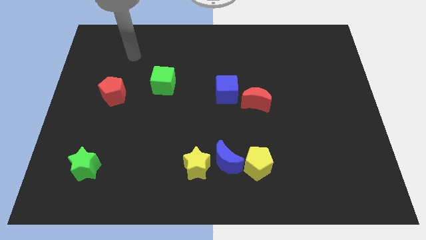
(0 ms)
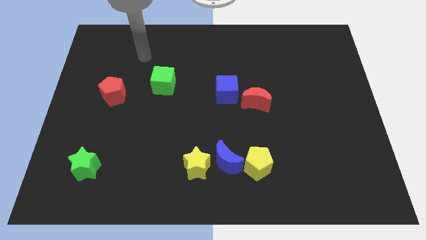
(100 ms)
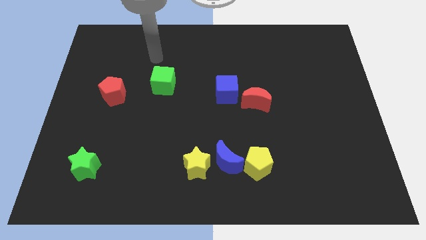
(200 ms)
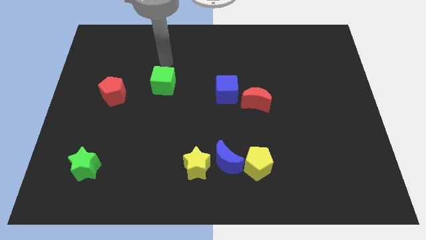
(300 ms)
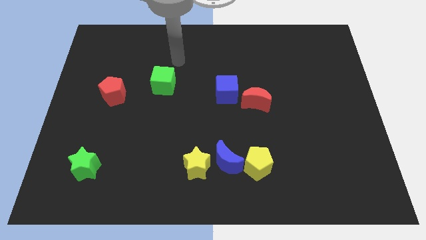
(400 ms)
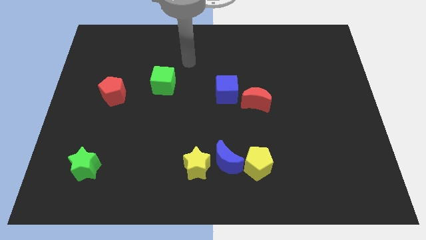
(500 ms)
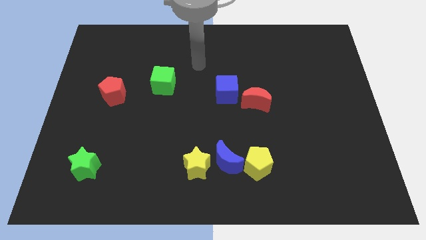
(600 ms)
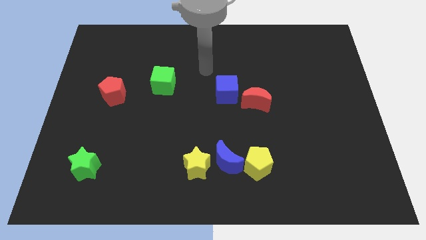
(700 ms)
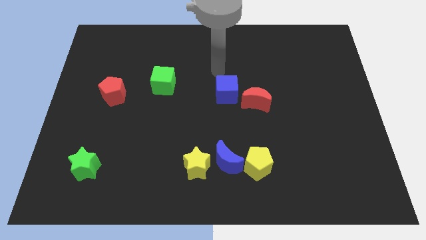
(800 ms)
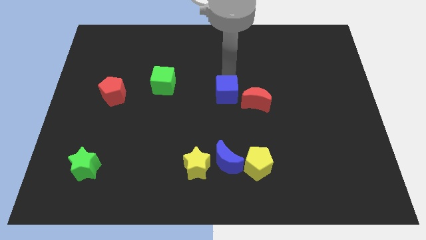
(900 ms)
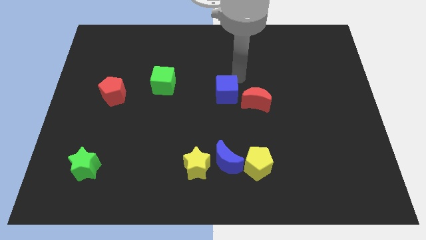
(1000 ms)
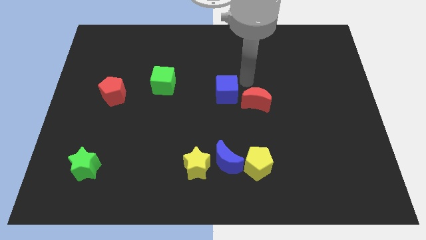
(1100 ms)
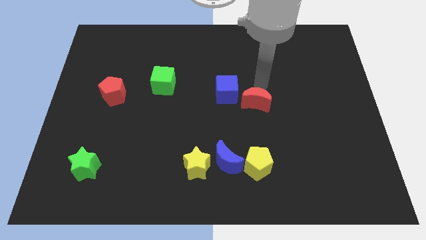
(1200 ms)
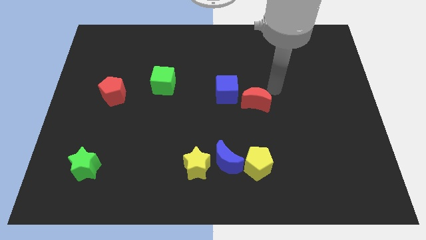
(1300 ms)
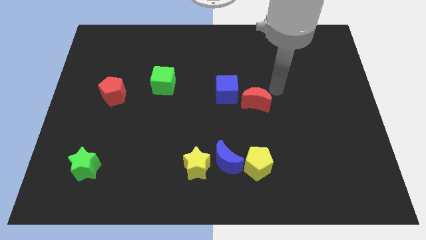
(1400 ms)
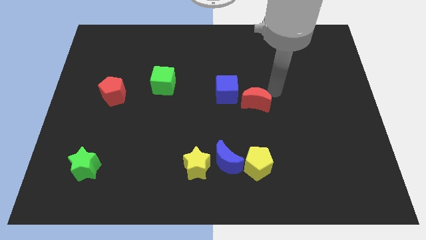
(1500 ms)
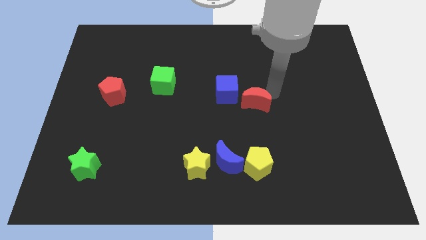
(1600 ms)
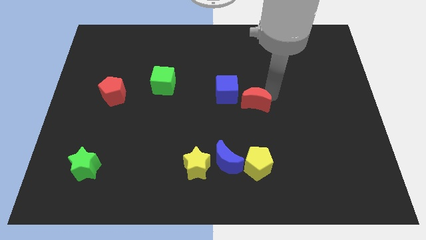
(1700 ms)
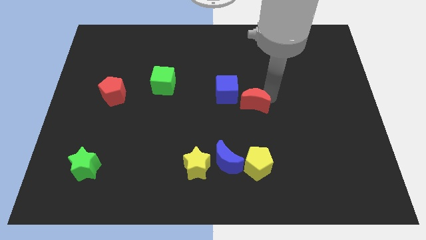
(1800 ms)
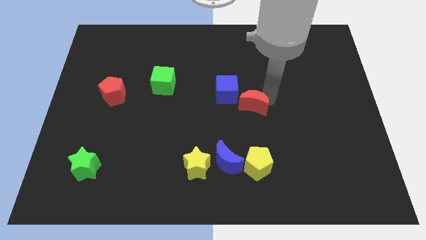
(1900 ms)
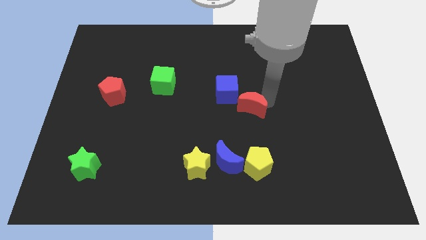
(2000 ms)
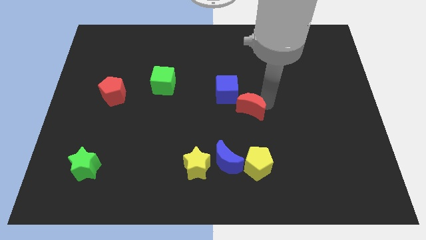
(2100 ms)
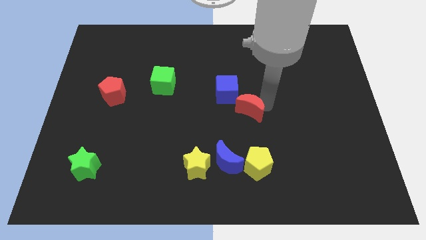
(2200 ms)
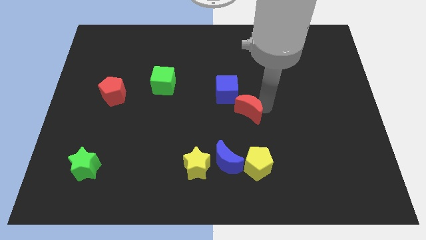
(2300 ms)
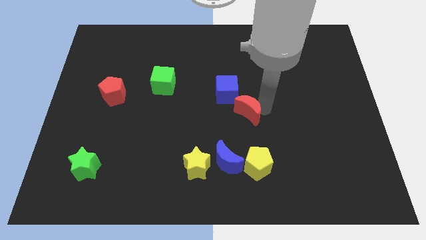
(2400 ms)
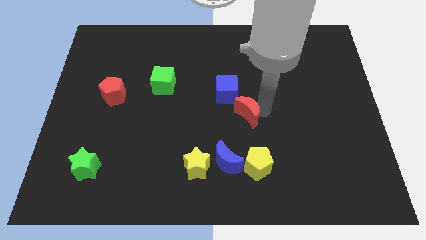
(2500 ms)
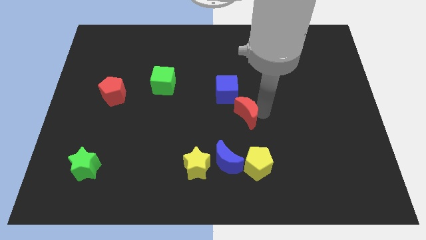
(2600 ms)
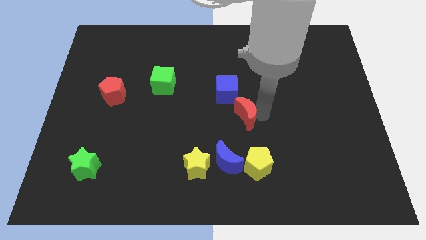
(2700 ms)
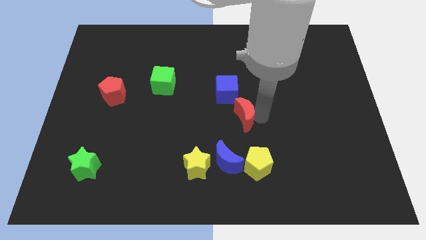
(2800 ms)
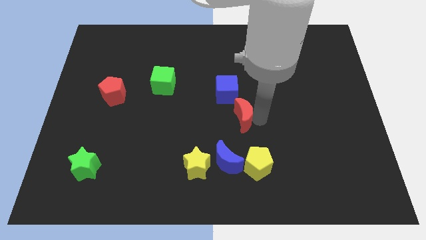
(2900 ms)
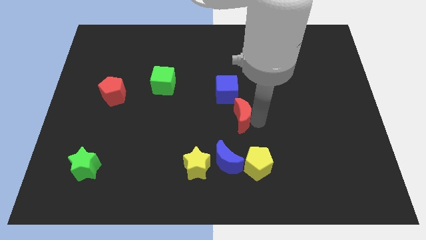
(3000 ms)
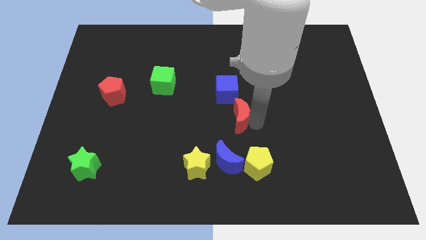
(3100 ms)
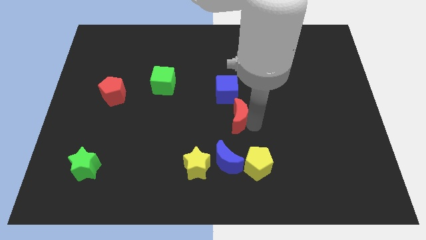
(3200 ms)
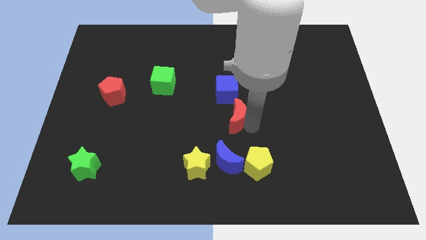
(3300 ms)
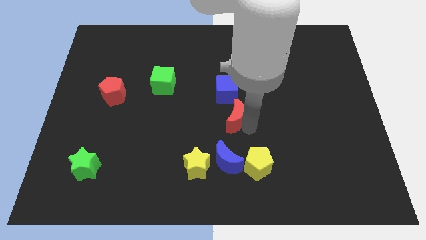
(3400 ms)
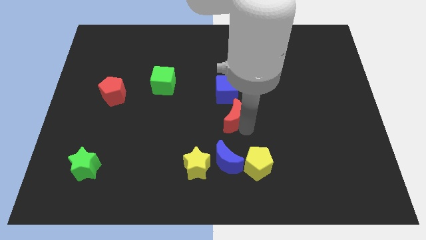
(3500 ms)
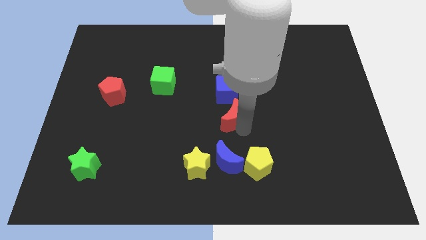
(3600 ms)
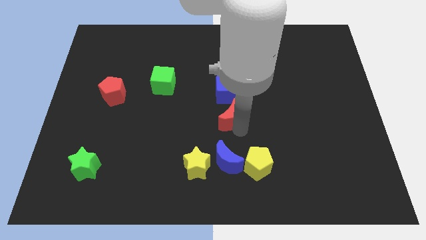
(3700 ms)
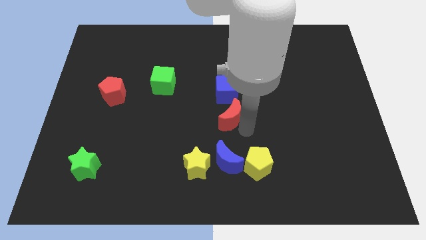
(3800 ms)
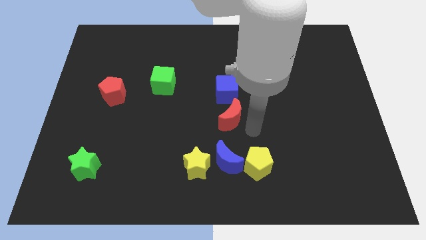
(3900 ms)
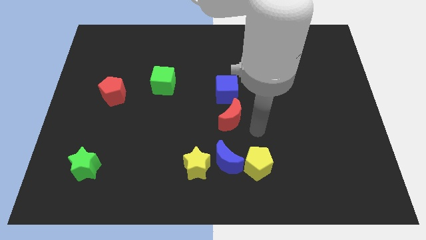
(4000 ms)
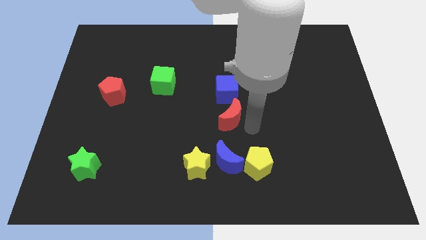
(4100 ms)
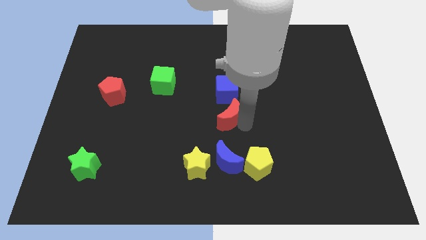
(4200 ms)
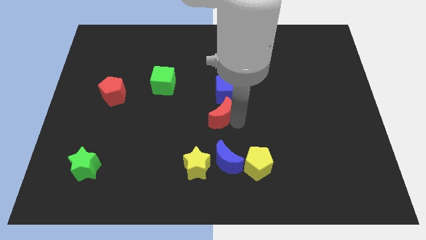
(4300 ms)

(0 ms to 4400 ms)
slide the red moon left a bit

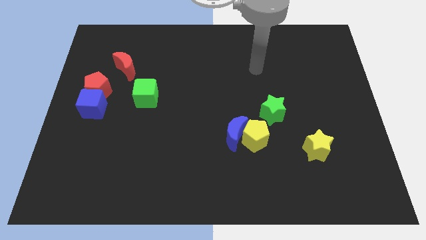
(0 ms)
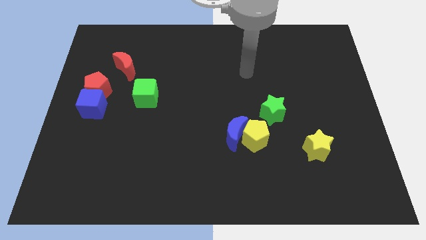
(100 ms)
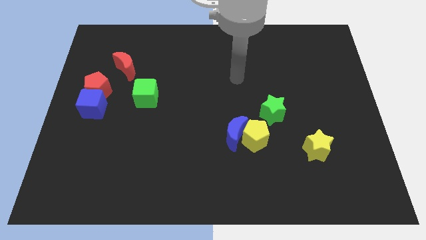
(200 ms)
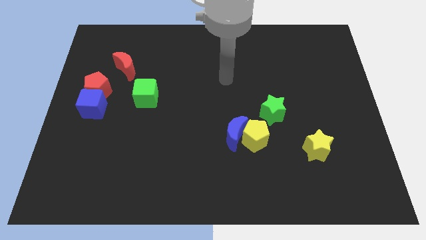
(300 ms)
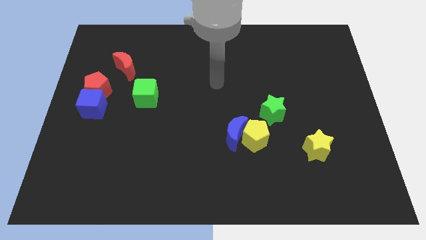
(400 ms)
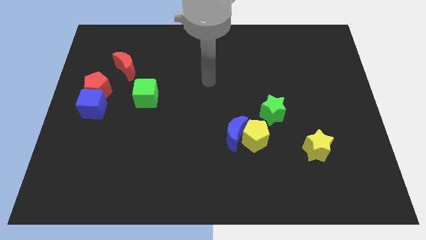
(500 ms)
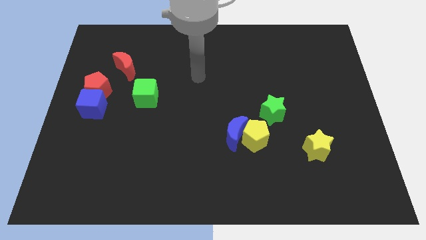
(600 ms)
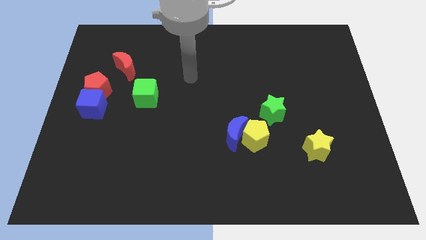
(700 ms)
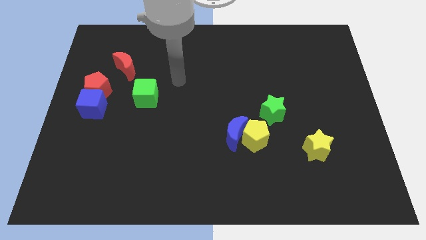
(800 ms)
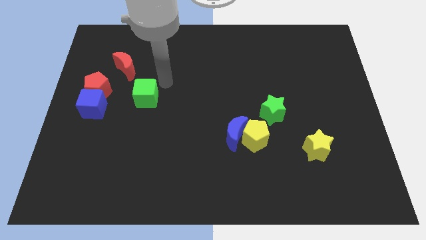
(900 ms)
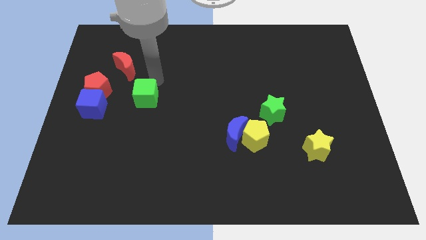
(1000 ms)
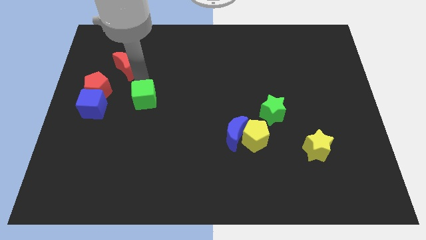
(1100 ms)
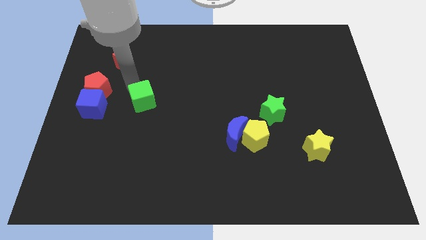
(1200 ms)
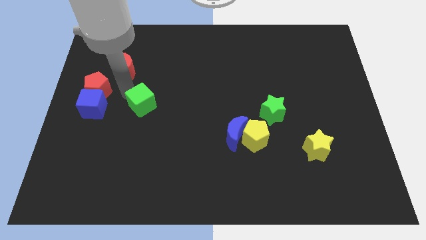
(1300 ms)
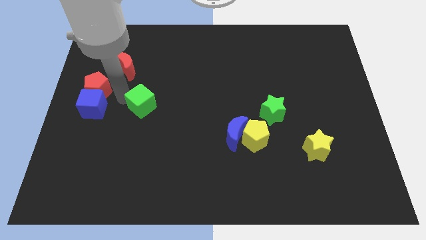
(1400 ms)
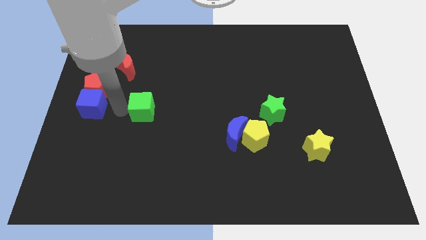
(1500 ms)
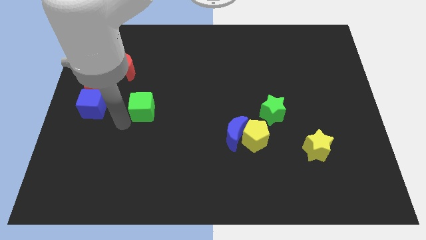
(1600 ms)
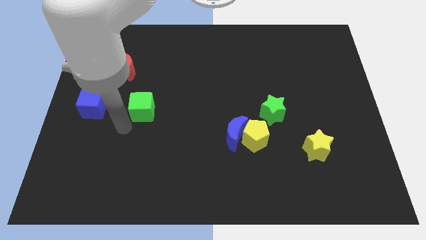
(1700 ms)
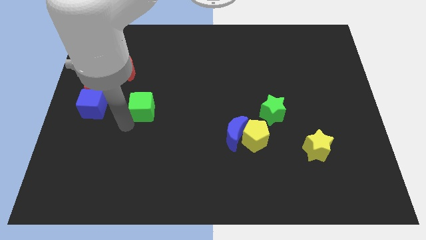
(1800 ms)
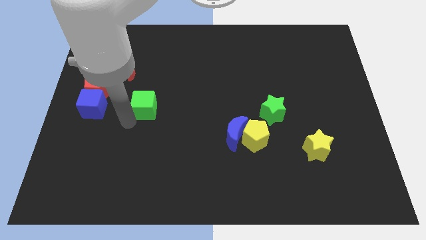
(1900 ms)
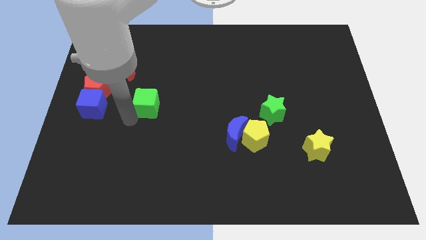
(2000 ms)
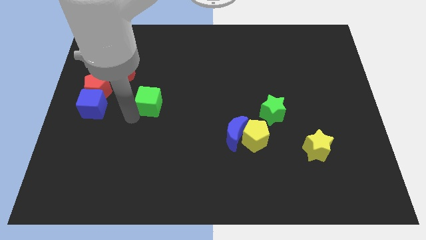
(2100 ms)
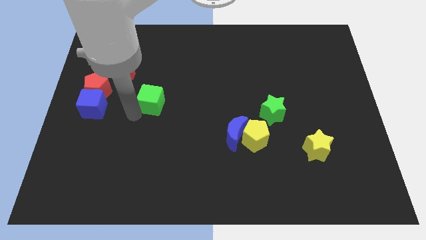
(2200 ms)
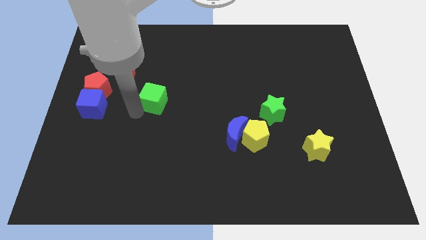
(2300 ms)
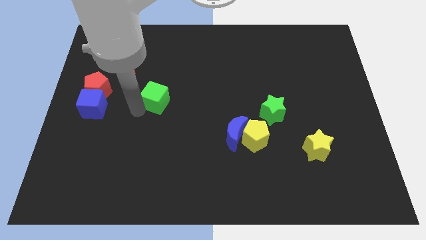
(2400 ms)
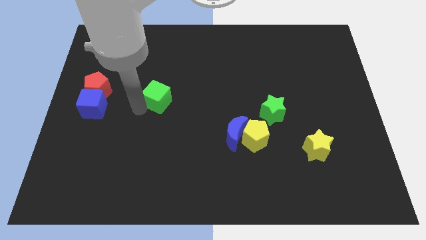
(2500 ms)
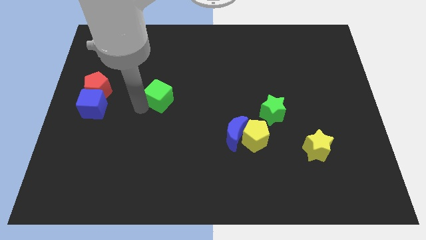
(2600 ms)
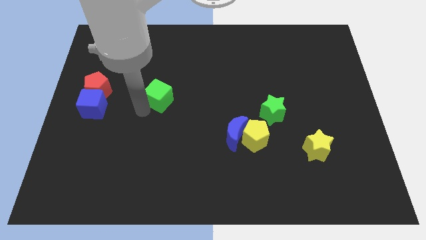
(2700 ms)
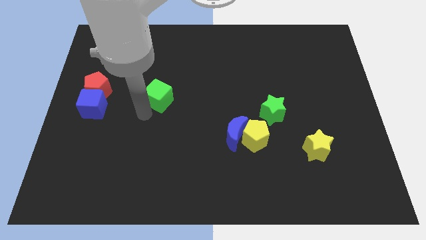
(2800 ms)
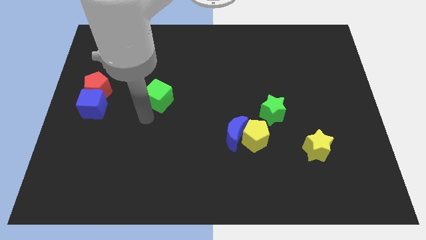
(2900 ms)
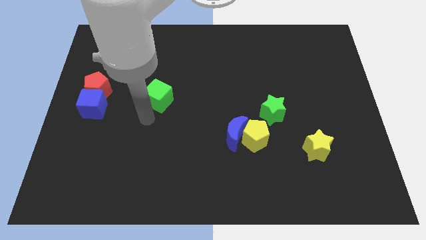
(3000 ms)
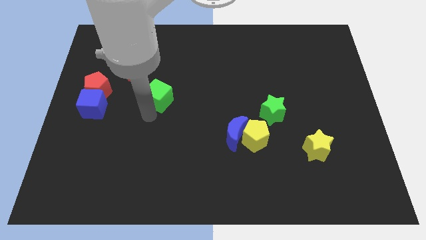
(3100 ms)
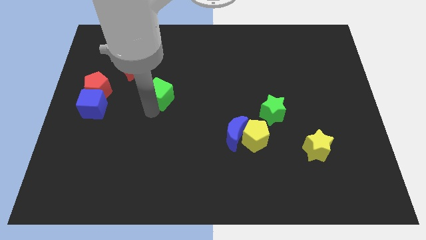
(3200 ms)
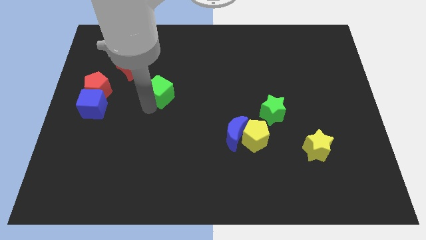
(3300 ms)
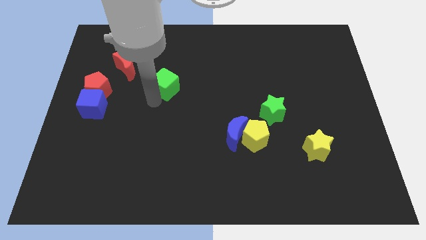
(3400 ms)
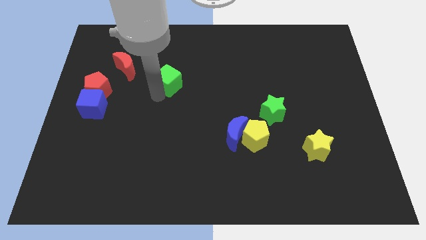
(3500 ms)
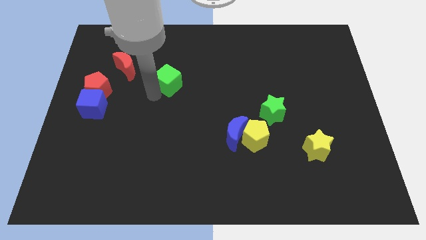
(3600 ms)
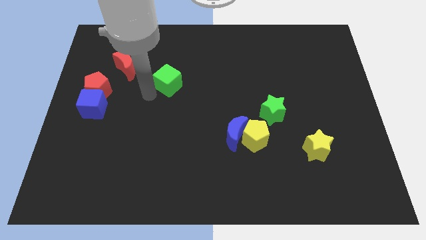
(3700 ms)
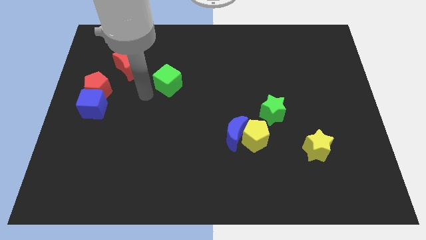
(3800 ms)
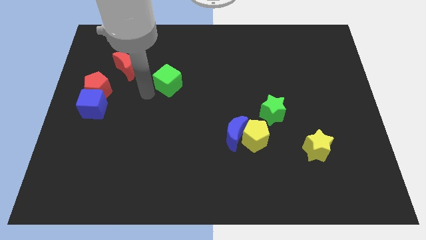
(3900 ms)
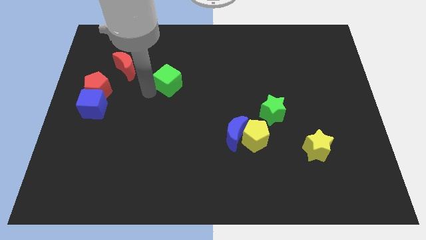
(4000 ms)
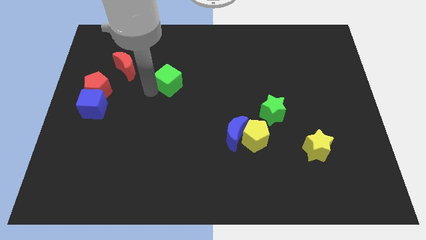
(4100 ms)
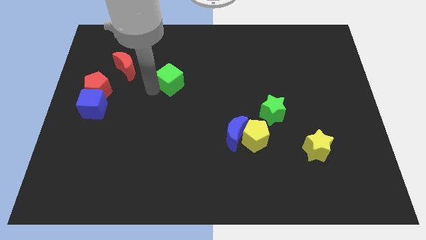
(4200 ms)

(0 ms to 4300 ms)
slide the green cube diagonally up and right somewhat
